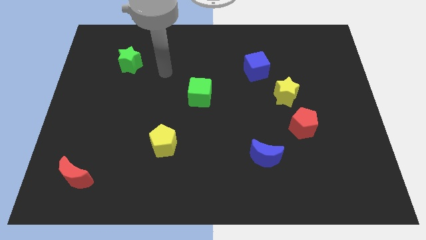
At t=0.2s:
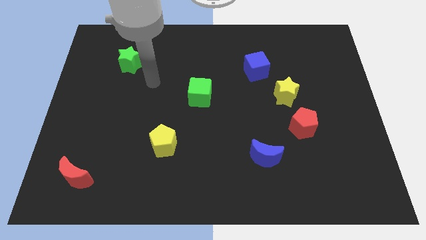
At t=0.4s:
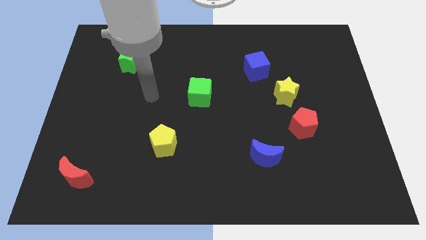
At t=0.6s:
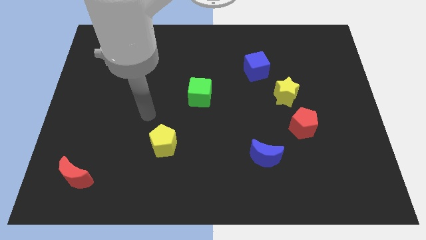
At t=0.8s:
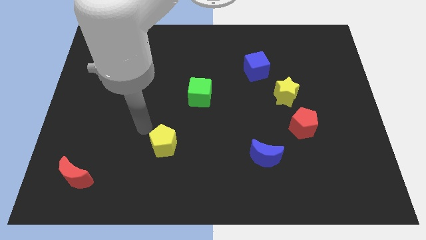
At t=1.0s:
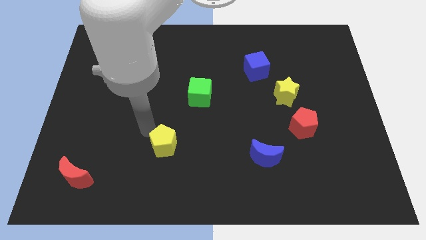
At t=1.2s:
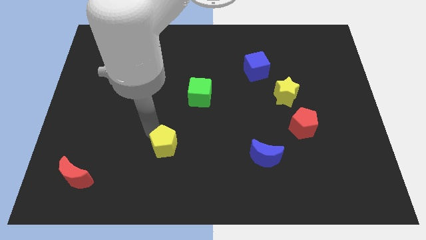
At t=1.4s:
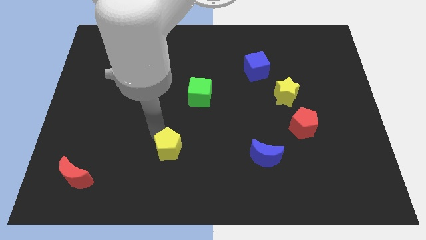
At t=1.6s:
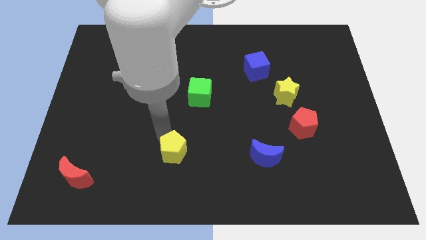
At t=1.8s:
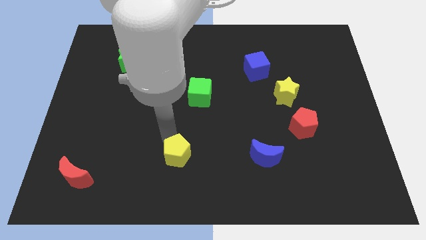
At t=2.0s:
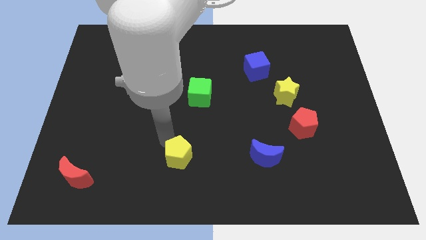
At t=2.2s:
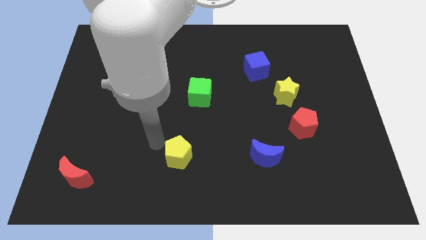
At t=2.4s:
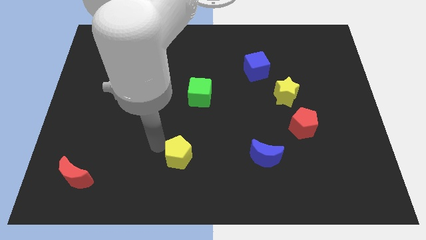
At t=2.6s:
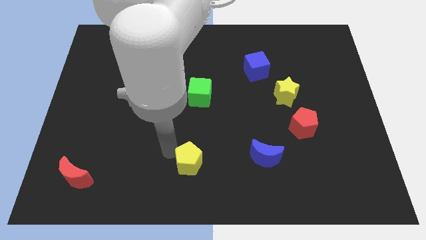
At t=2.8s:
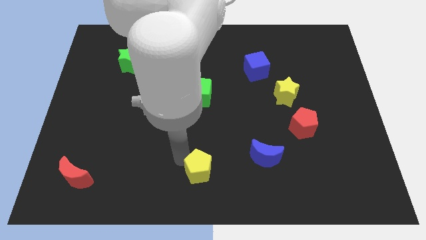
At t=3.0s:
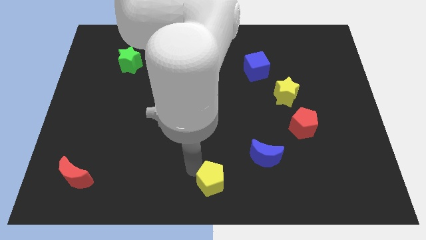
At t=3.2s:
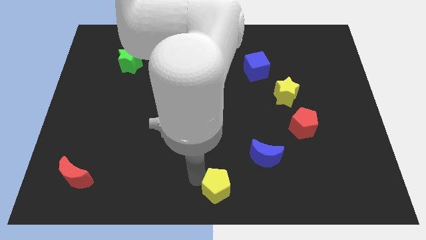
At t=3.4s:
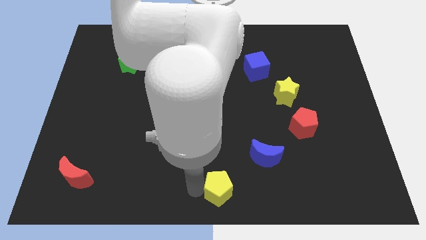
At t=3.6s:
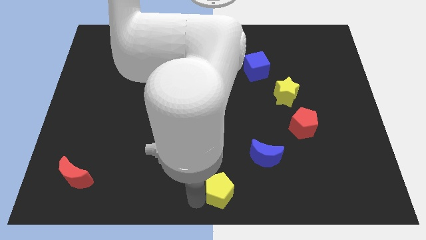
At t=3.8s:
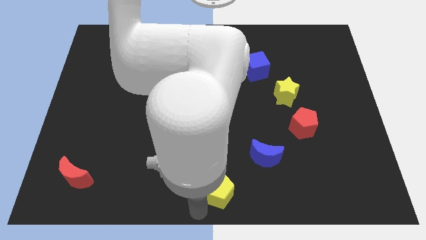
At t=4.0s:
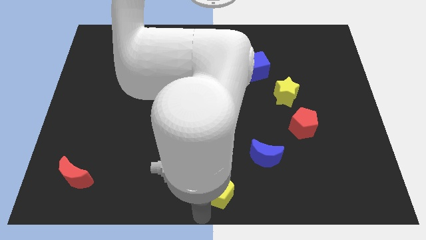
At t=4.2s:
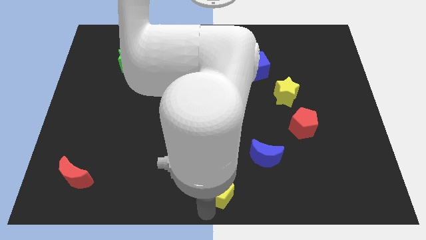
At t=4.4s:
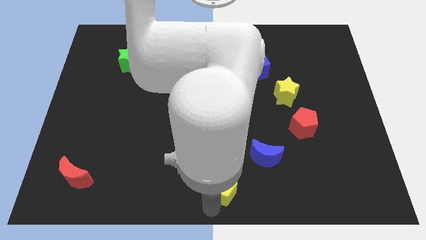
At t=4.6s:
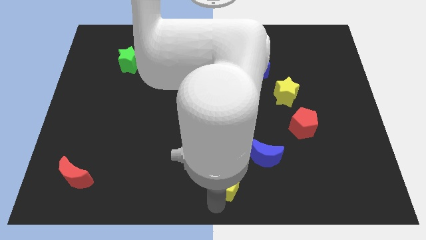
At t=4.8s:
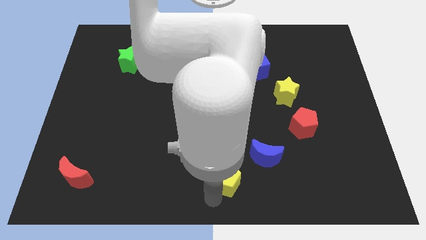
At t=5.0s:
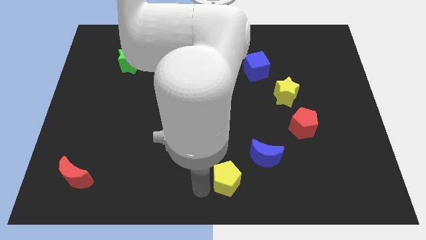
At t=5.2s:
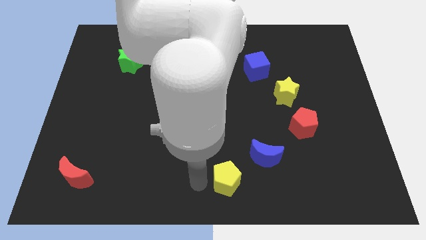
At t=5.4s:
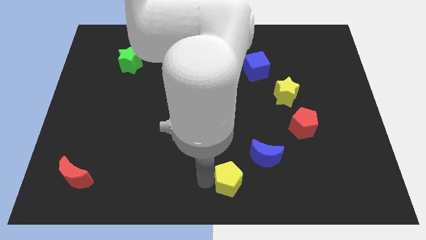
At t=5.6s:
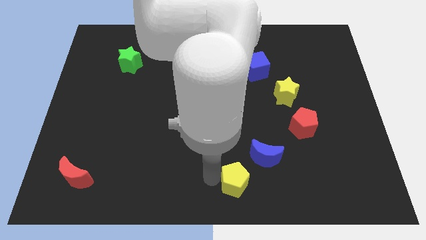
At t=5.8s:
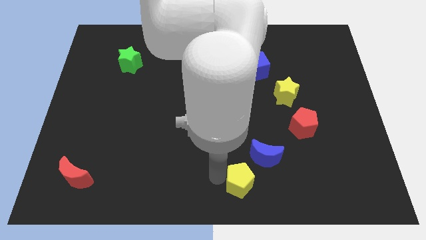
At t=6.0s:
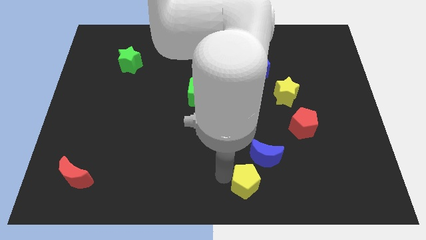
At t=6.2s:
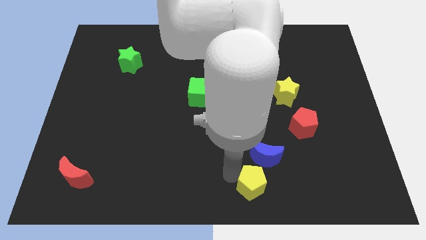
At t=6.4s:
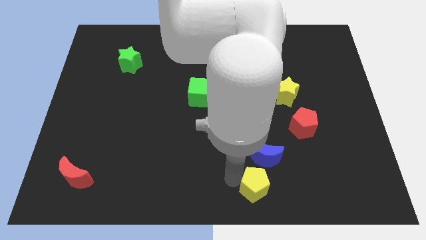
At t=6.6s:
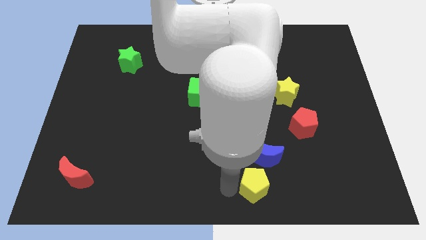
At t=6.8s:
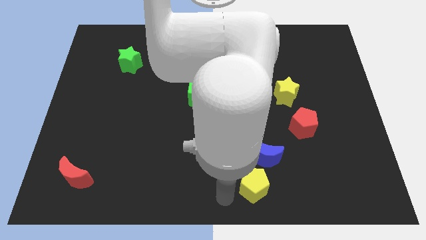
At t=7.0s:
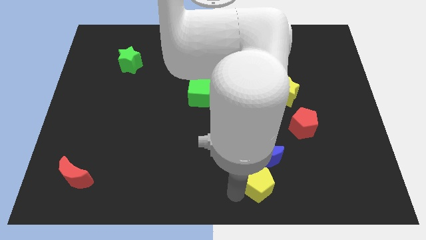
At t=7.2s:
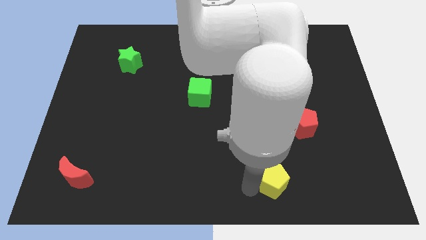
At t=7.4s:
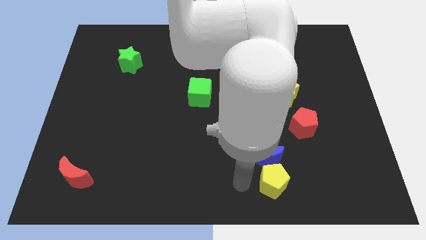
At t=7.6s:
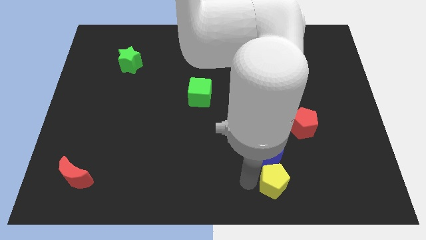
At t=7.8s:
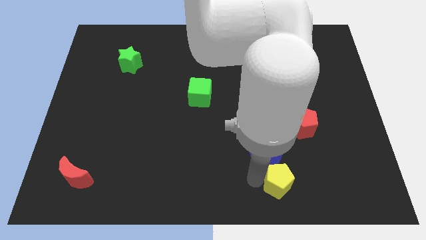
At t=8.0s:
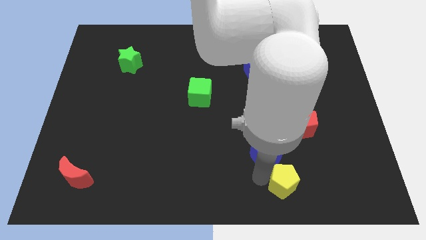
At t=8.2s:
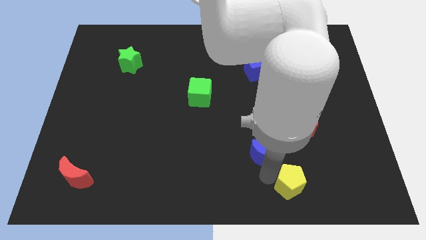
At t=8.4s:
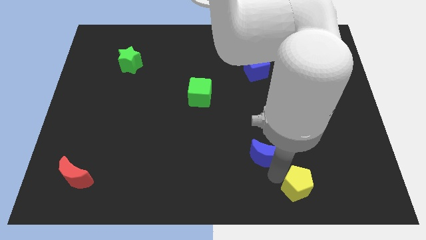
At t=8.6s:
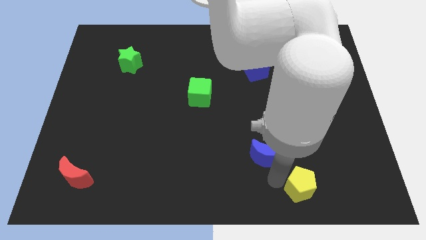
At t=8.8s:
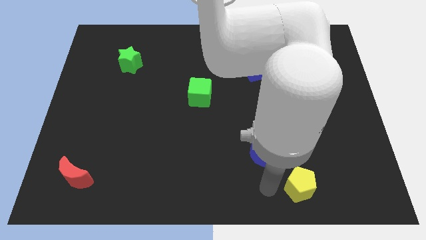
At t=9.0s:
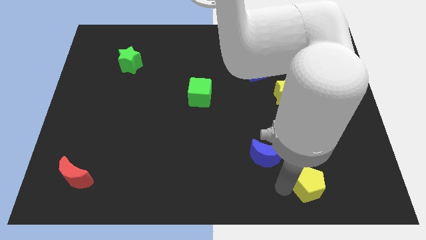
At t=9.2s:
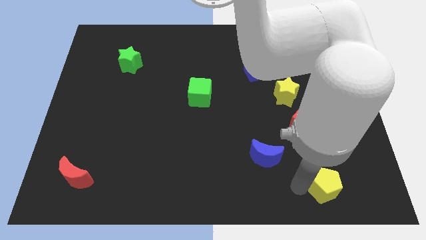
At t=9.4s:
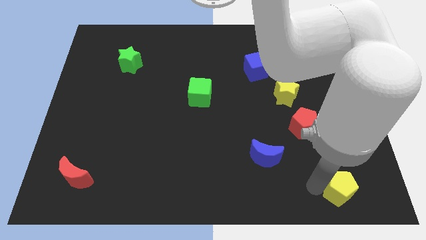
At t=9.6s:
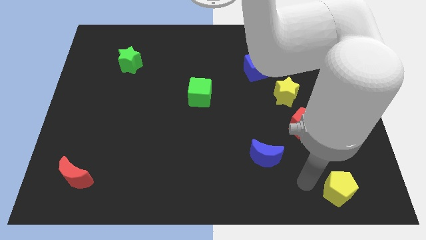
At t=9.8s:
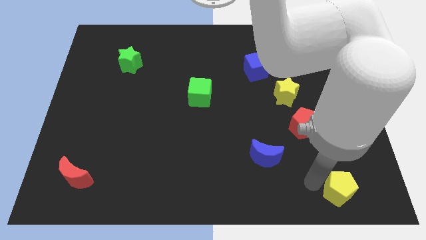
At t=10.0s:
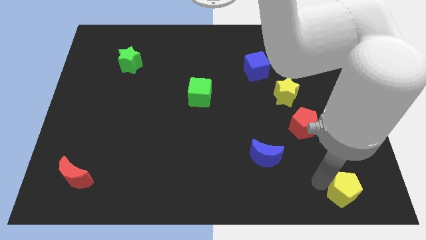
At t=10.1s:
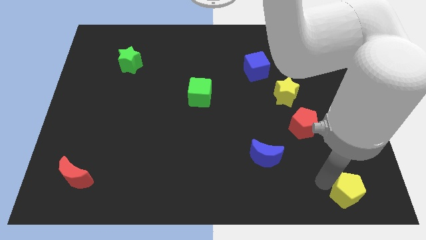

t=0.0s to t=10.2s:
push the yellow pentagon to the bottom right

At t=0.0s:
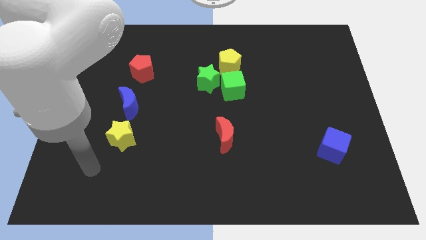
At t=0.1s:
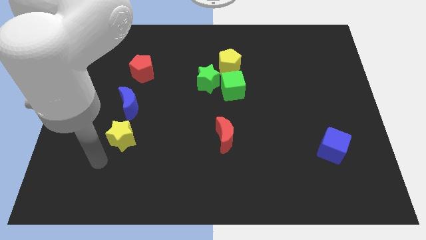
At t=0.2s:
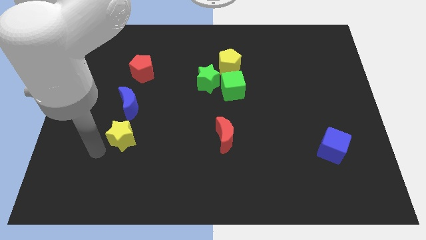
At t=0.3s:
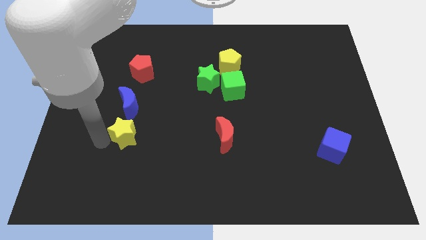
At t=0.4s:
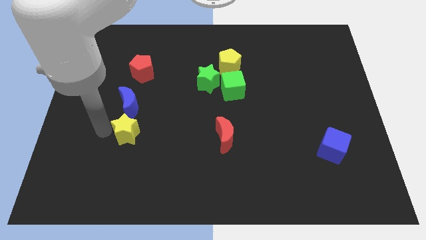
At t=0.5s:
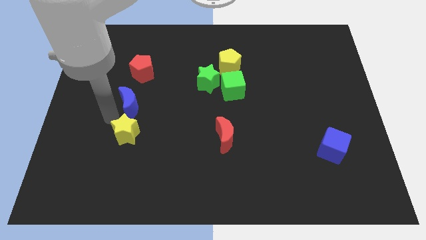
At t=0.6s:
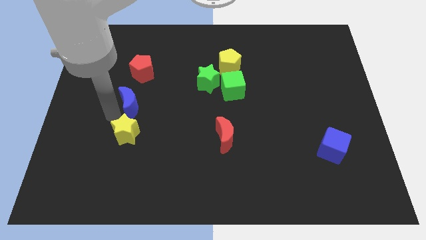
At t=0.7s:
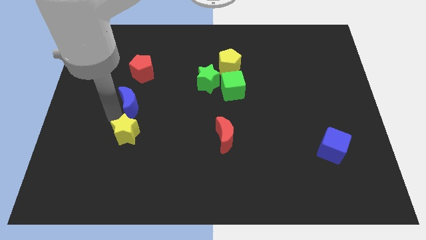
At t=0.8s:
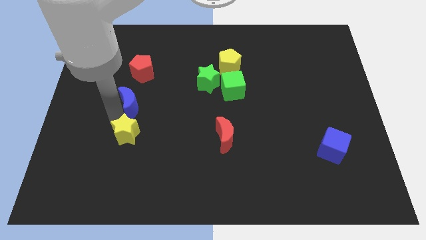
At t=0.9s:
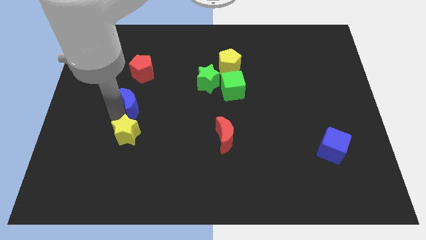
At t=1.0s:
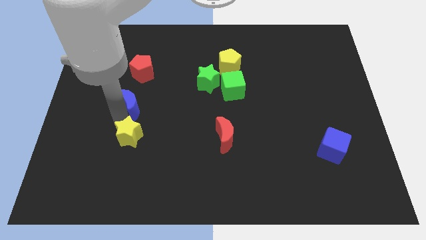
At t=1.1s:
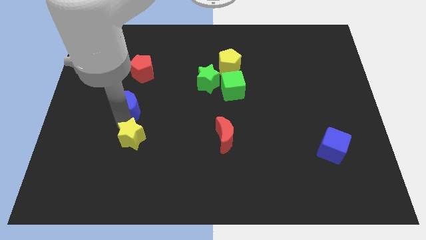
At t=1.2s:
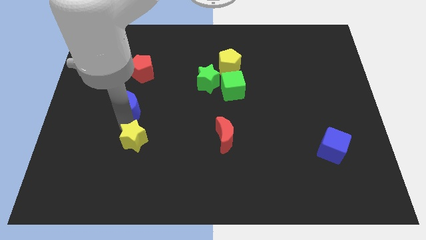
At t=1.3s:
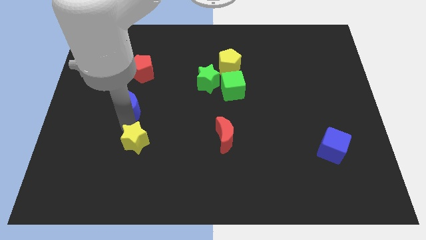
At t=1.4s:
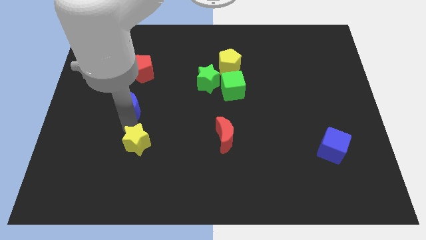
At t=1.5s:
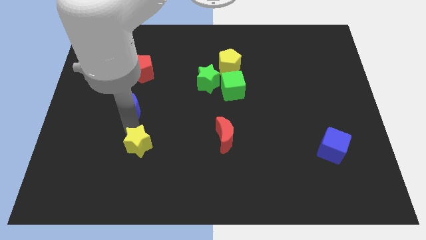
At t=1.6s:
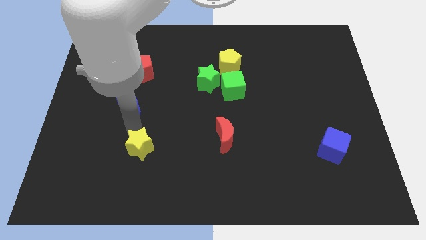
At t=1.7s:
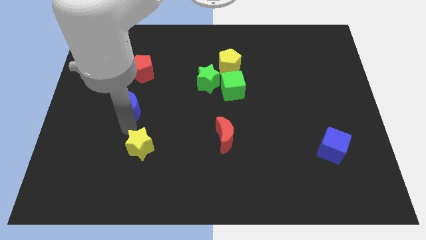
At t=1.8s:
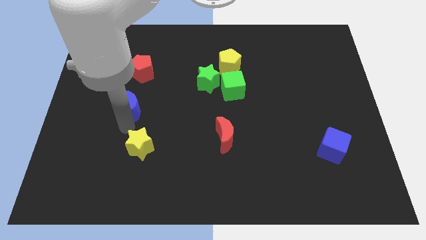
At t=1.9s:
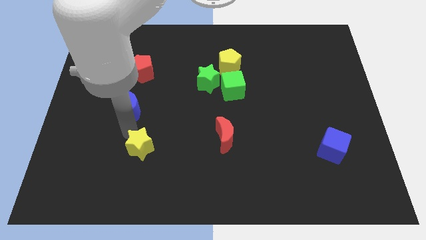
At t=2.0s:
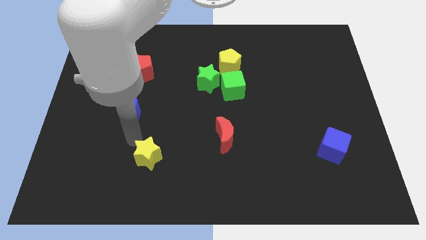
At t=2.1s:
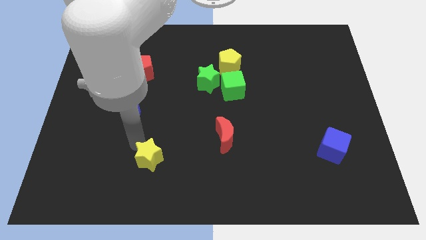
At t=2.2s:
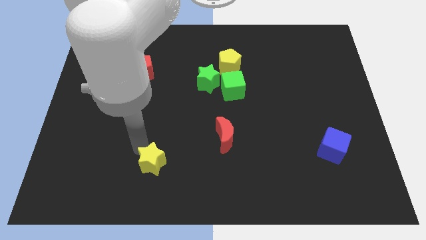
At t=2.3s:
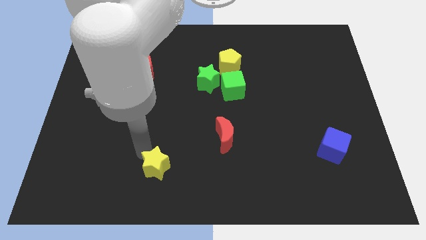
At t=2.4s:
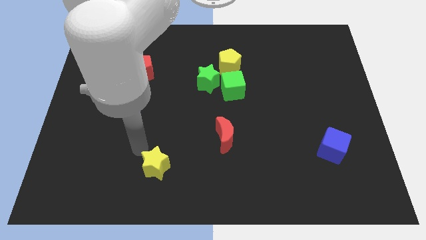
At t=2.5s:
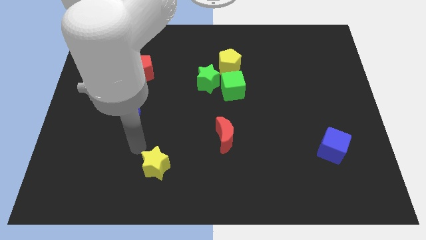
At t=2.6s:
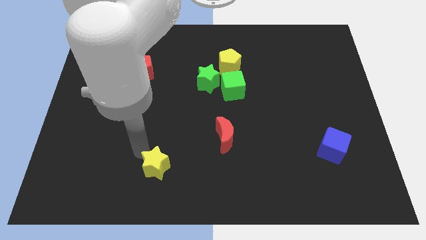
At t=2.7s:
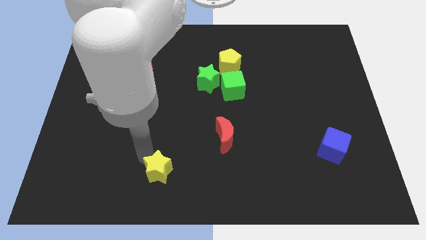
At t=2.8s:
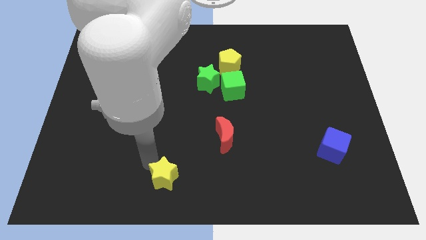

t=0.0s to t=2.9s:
slide the yellow star to the bottom side
